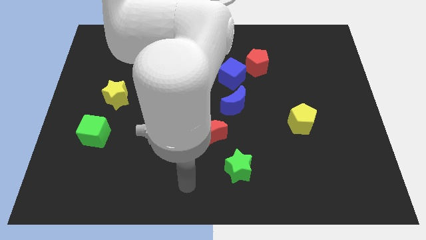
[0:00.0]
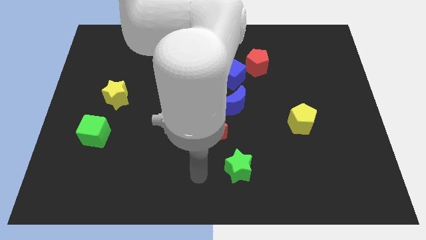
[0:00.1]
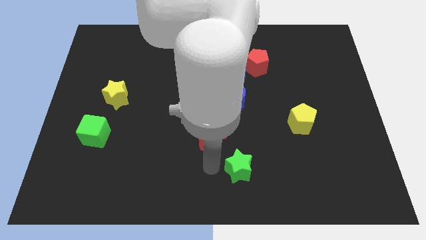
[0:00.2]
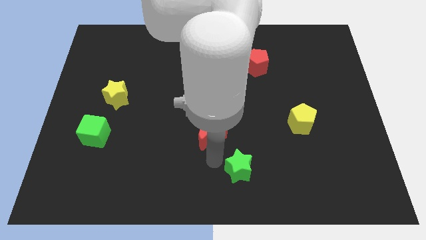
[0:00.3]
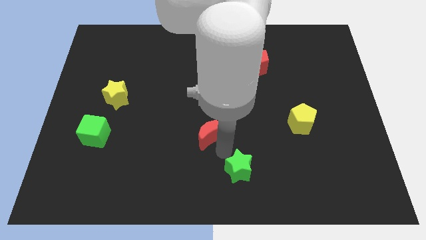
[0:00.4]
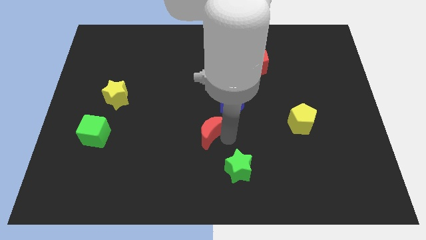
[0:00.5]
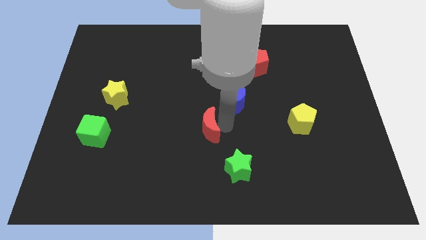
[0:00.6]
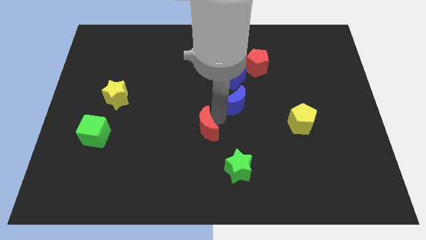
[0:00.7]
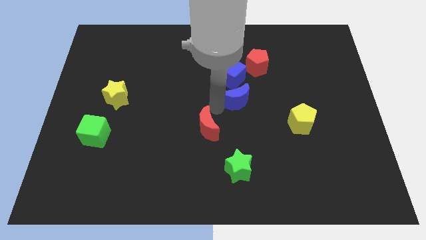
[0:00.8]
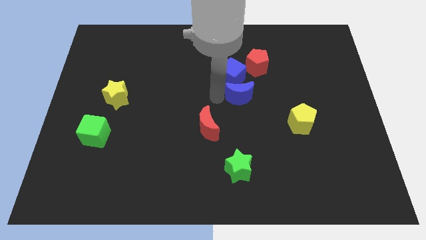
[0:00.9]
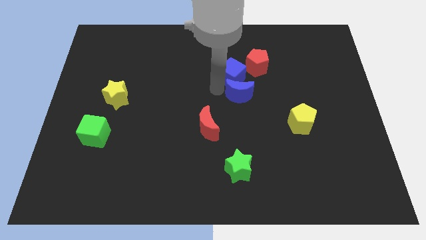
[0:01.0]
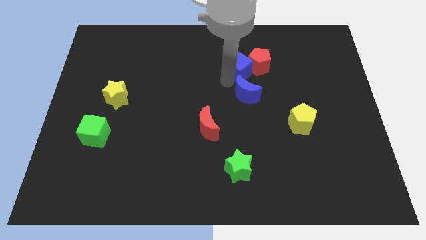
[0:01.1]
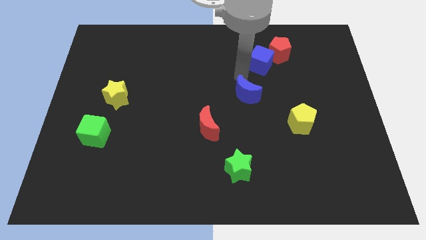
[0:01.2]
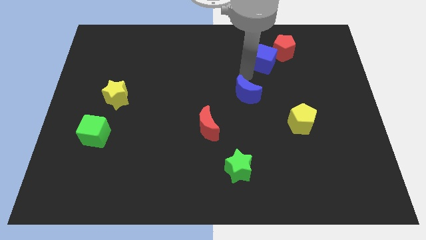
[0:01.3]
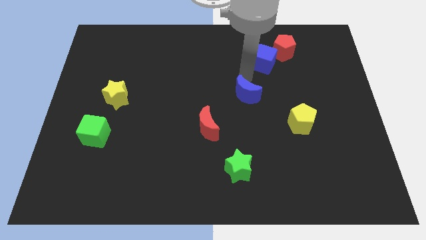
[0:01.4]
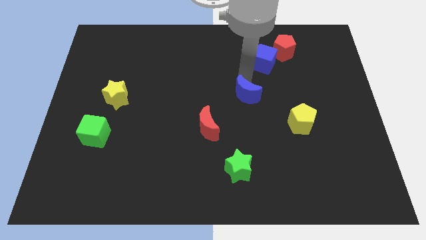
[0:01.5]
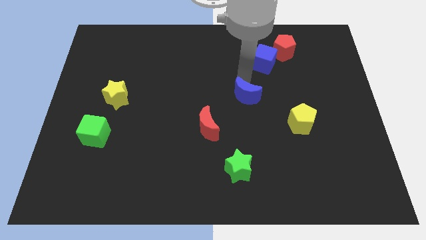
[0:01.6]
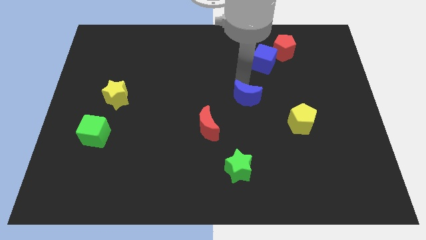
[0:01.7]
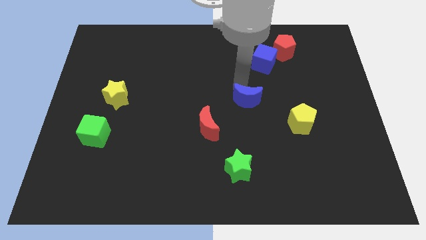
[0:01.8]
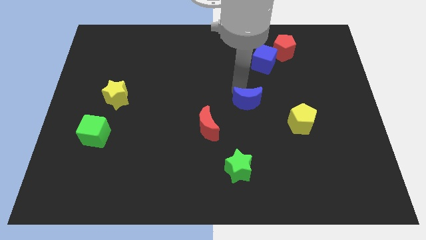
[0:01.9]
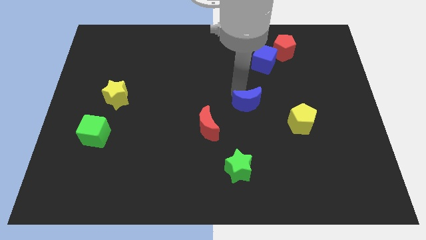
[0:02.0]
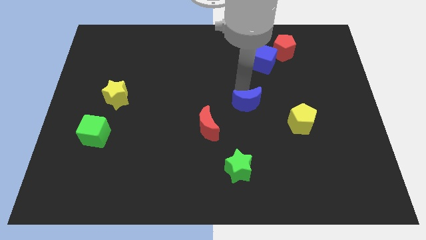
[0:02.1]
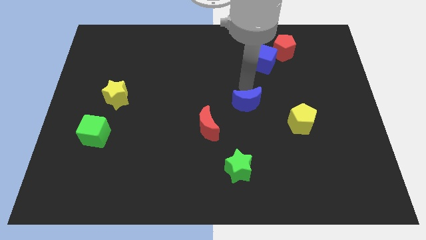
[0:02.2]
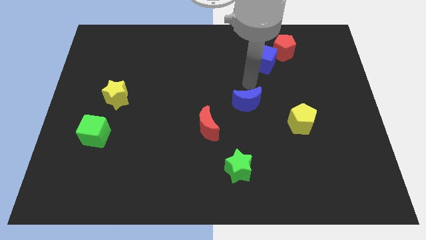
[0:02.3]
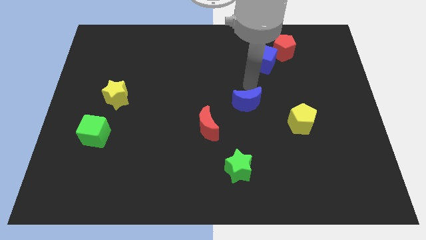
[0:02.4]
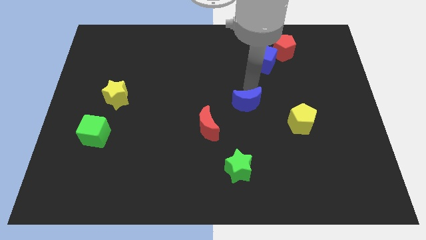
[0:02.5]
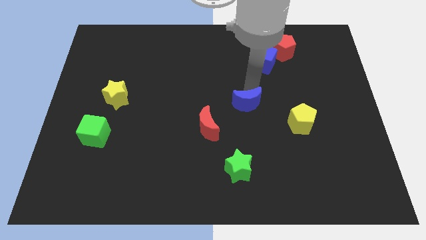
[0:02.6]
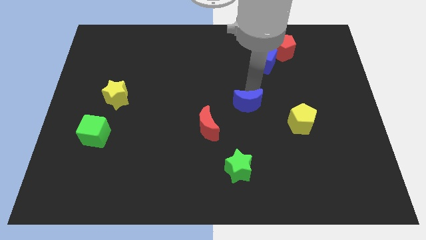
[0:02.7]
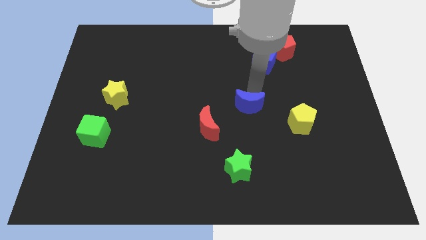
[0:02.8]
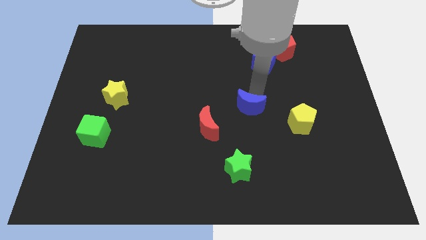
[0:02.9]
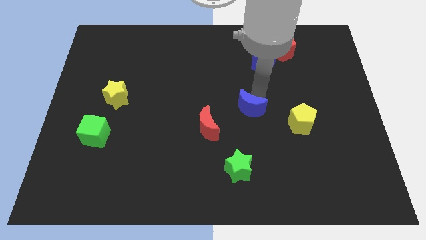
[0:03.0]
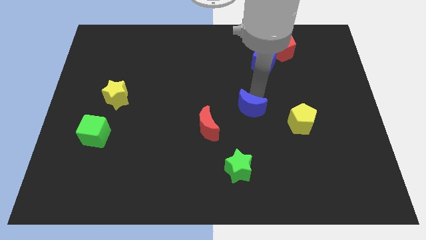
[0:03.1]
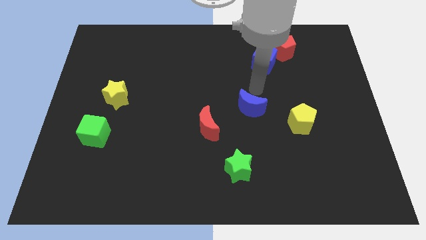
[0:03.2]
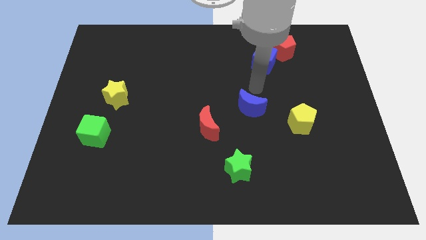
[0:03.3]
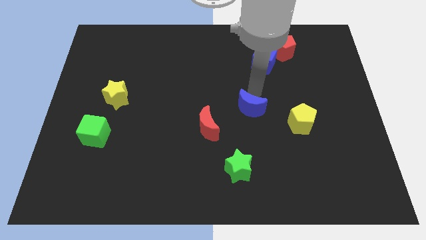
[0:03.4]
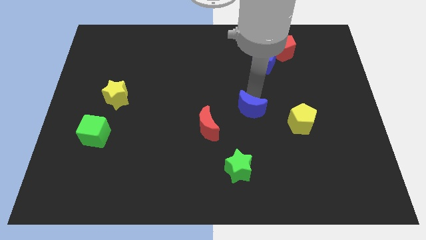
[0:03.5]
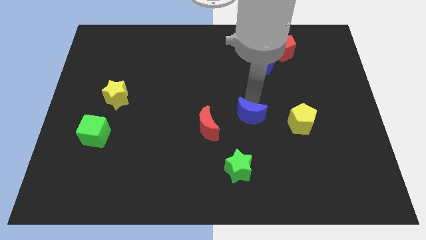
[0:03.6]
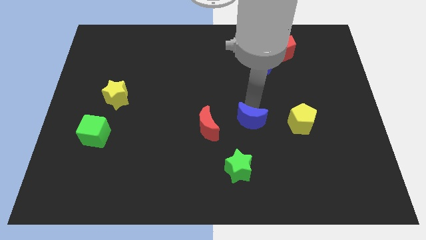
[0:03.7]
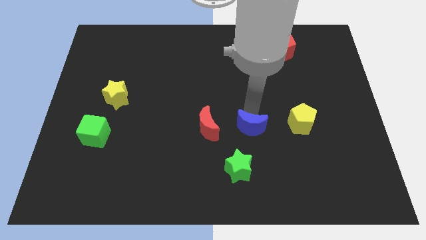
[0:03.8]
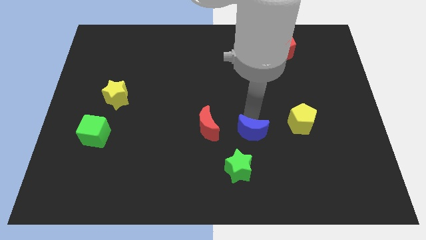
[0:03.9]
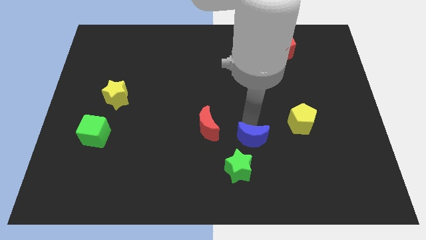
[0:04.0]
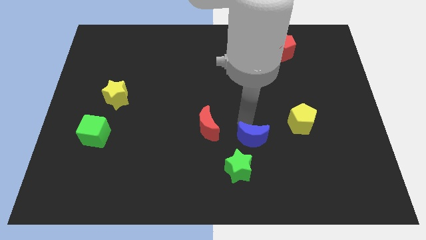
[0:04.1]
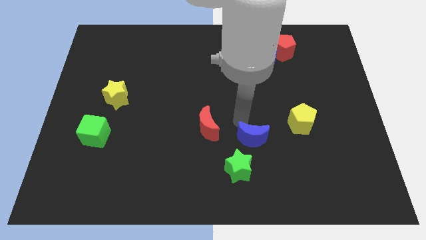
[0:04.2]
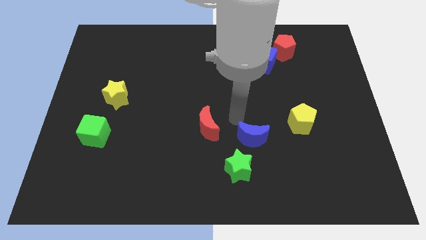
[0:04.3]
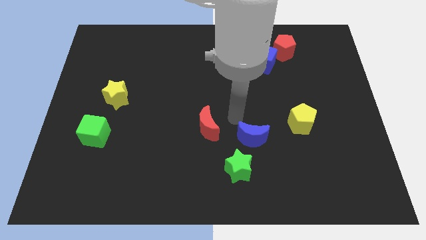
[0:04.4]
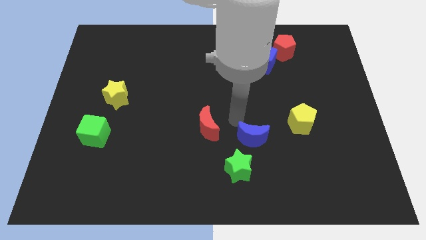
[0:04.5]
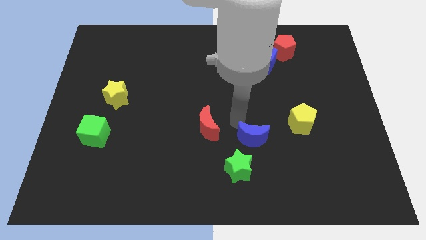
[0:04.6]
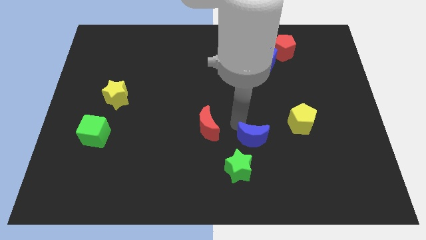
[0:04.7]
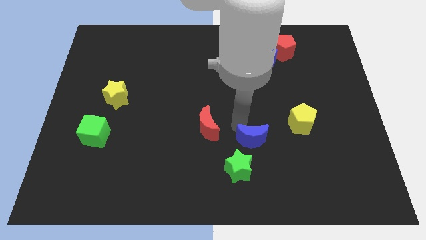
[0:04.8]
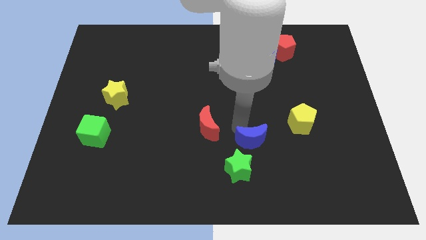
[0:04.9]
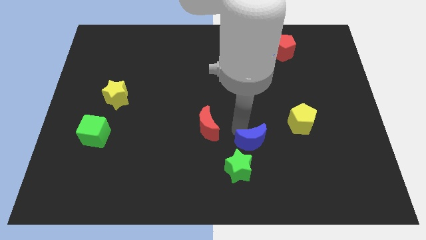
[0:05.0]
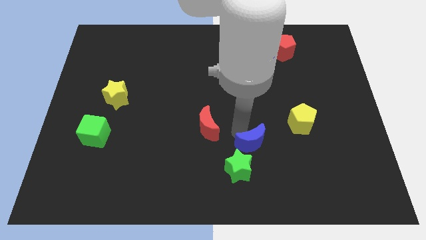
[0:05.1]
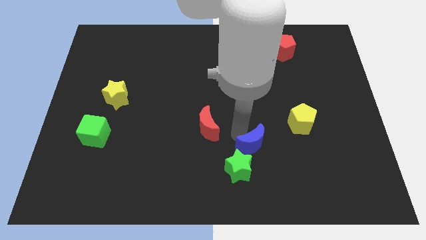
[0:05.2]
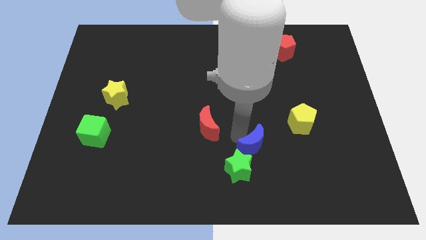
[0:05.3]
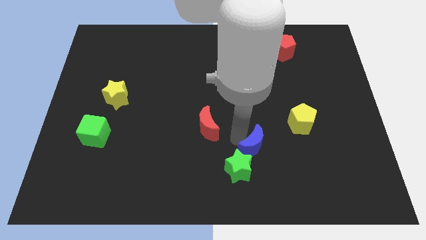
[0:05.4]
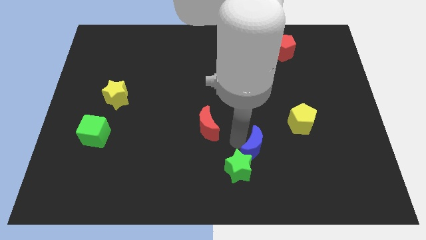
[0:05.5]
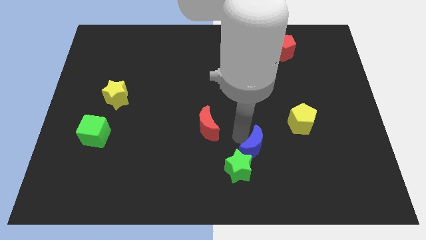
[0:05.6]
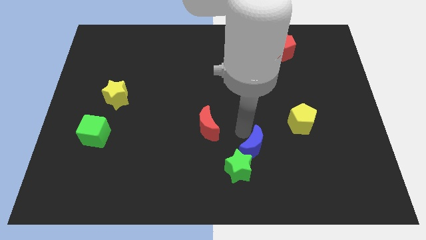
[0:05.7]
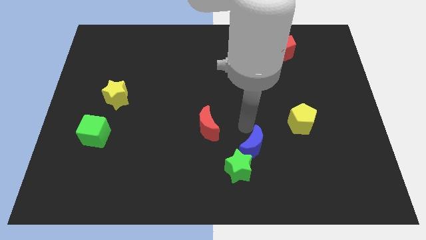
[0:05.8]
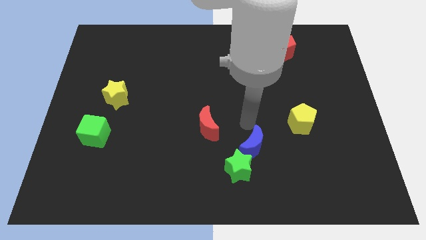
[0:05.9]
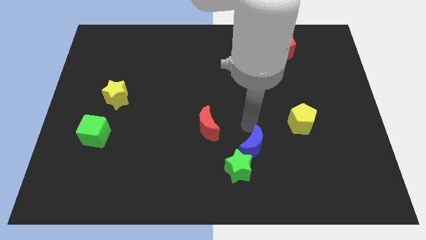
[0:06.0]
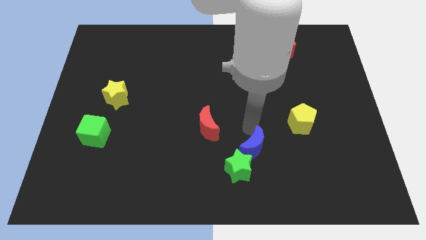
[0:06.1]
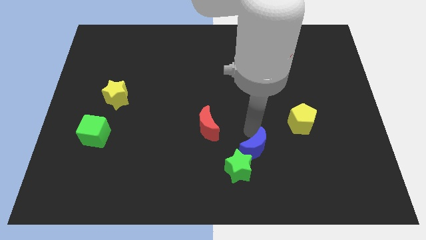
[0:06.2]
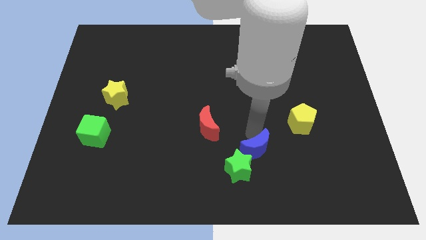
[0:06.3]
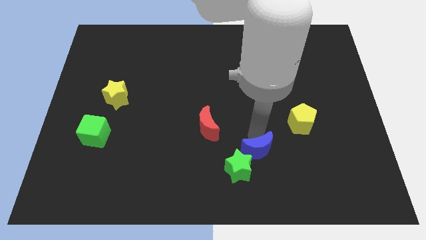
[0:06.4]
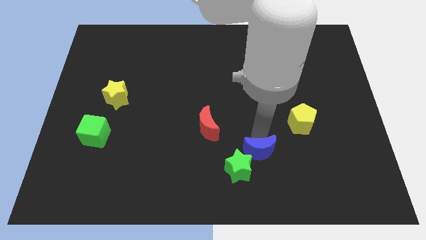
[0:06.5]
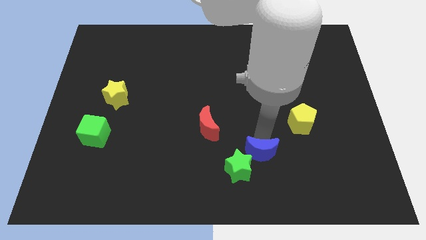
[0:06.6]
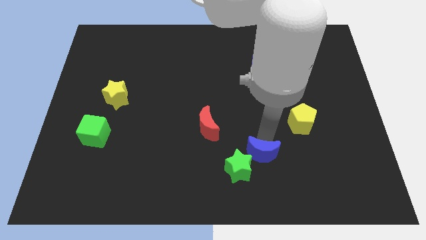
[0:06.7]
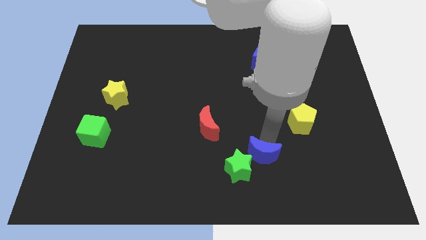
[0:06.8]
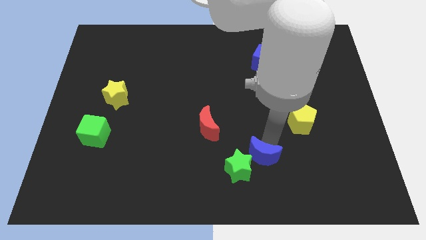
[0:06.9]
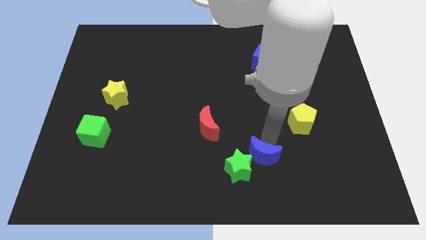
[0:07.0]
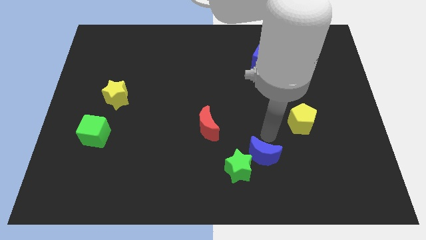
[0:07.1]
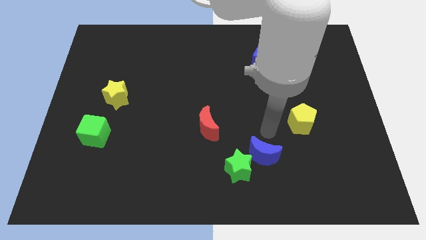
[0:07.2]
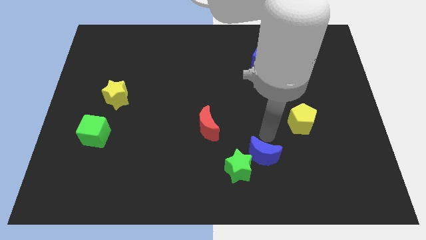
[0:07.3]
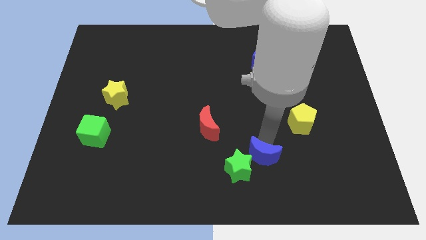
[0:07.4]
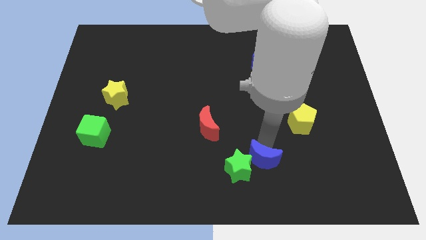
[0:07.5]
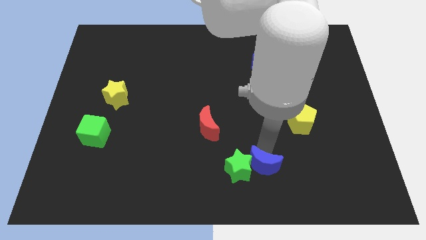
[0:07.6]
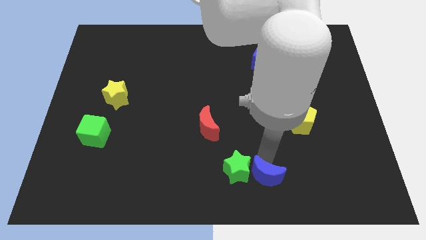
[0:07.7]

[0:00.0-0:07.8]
push the blue moon to the bottom side
